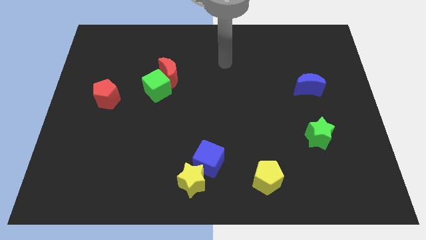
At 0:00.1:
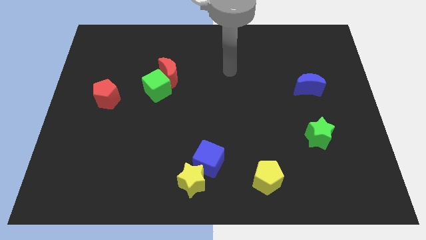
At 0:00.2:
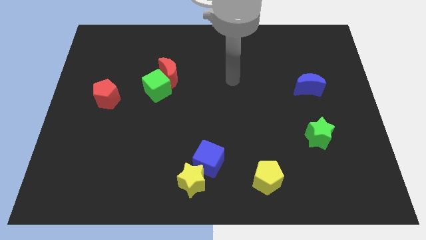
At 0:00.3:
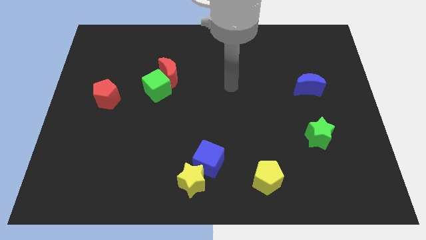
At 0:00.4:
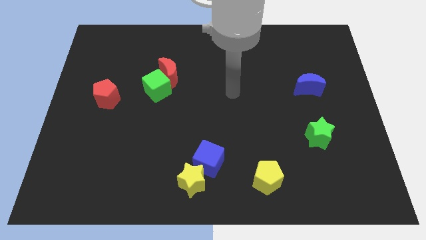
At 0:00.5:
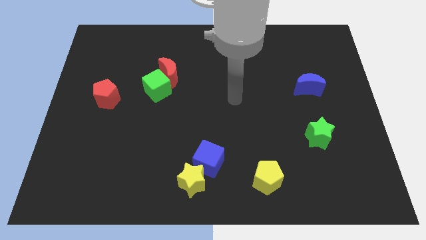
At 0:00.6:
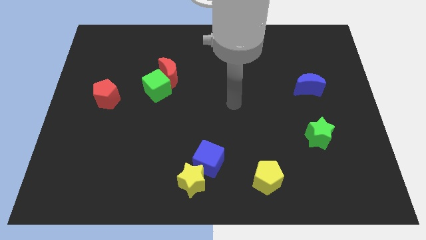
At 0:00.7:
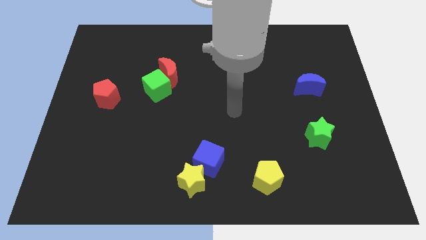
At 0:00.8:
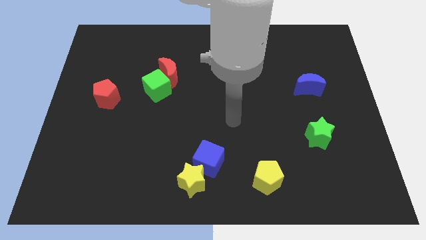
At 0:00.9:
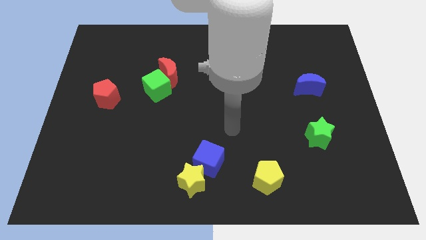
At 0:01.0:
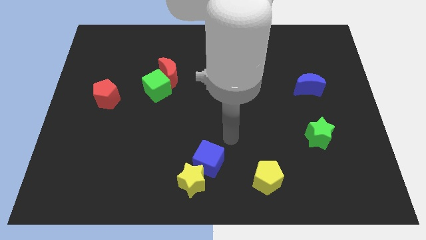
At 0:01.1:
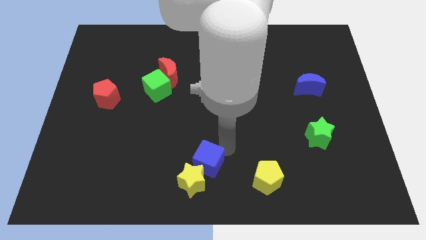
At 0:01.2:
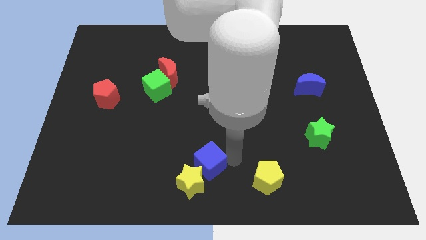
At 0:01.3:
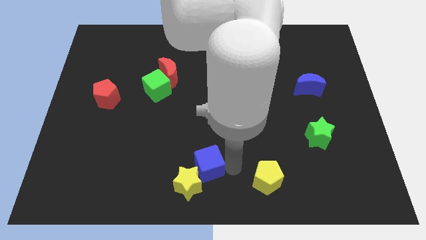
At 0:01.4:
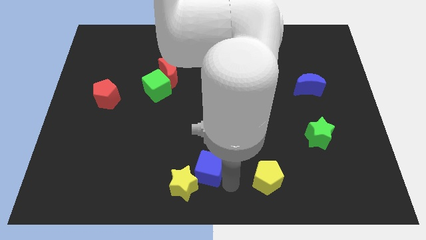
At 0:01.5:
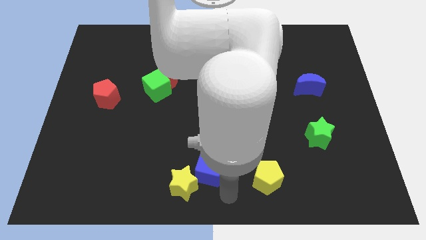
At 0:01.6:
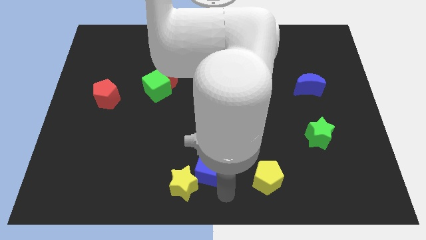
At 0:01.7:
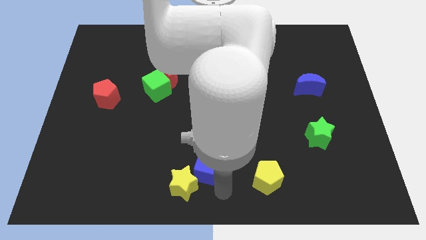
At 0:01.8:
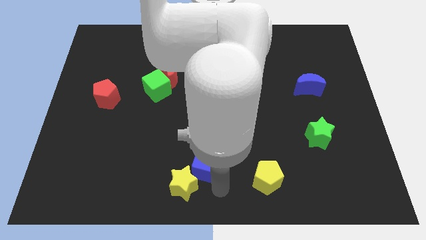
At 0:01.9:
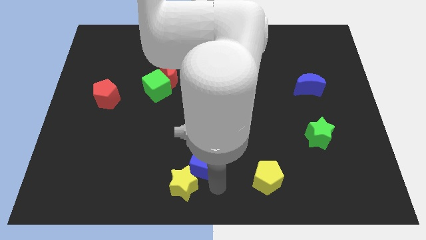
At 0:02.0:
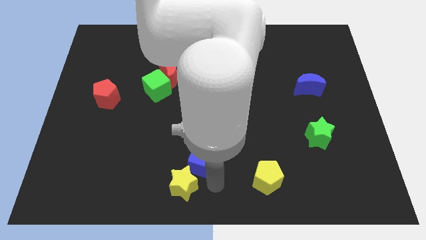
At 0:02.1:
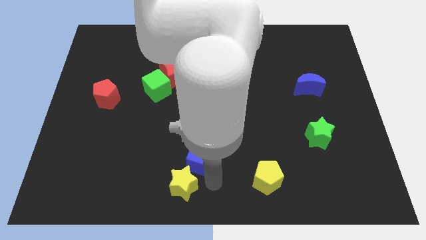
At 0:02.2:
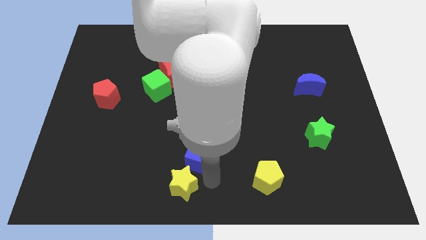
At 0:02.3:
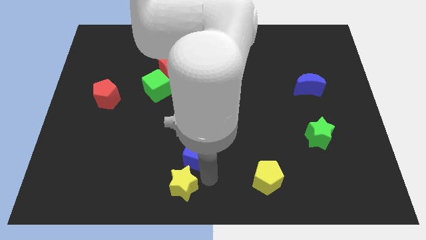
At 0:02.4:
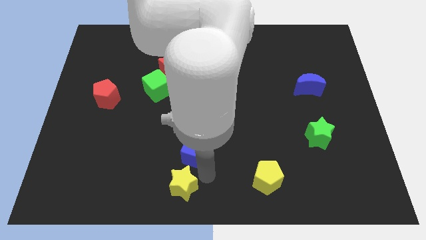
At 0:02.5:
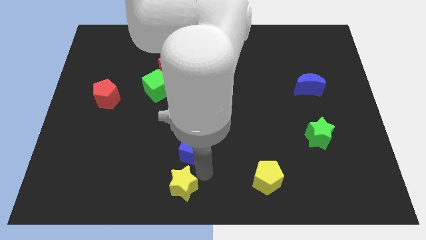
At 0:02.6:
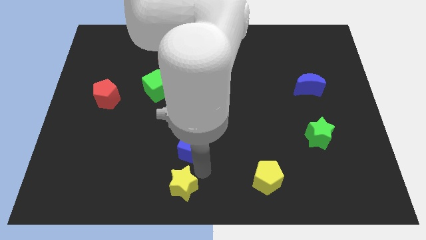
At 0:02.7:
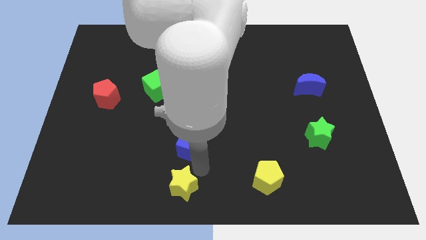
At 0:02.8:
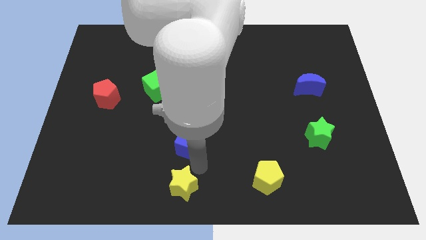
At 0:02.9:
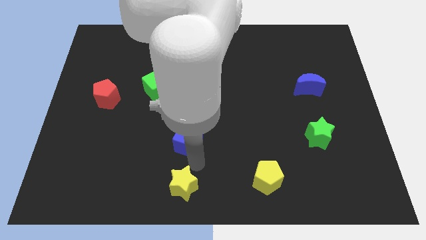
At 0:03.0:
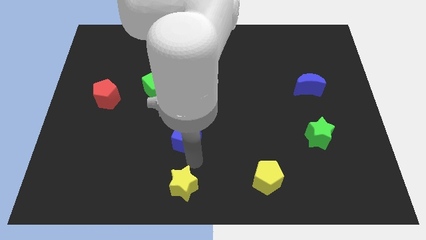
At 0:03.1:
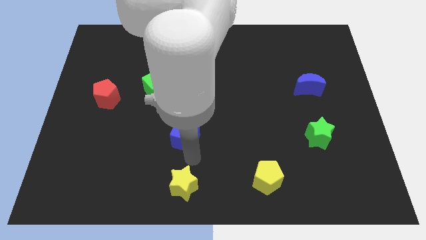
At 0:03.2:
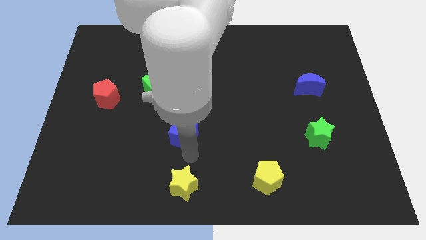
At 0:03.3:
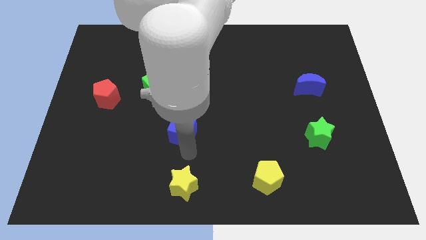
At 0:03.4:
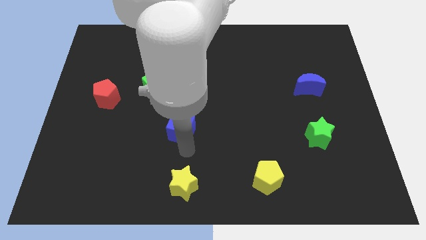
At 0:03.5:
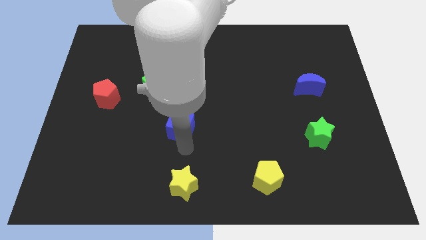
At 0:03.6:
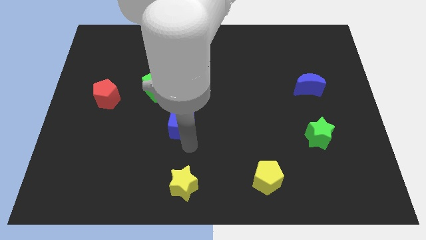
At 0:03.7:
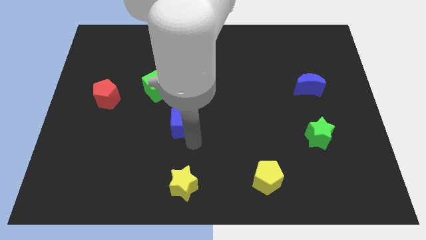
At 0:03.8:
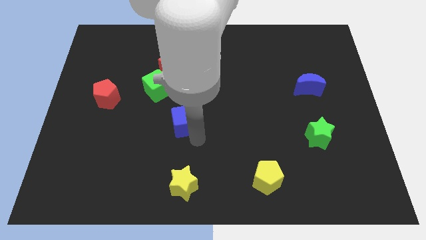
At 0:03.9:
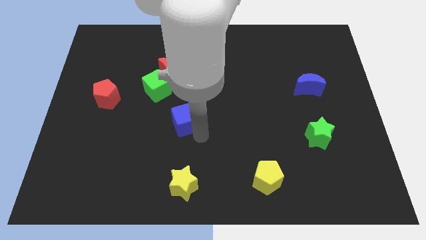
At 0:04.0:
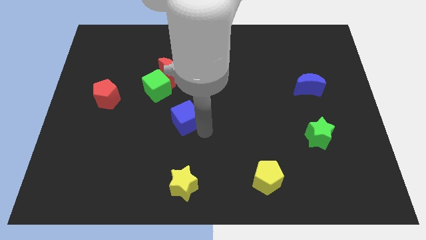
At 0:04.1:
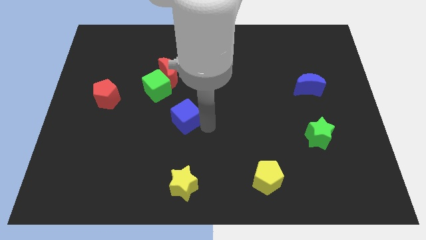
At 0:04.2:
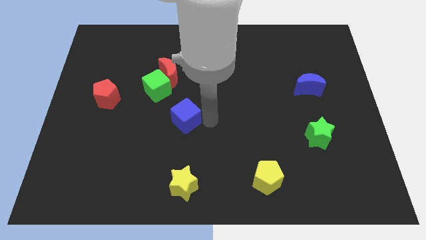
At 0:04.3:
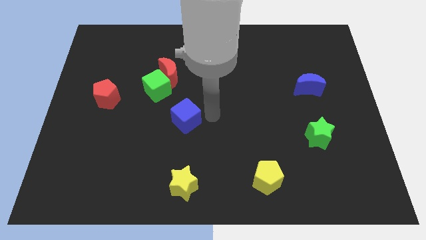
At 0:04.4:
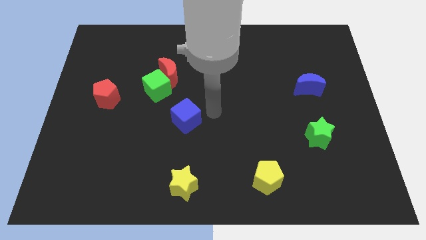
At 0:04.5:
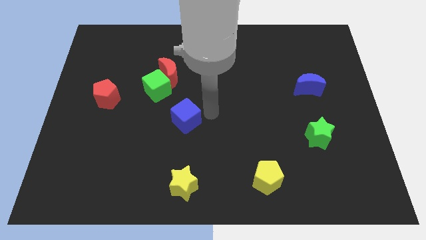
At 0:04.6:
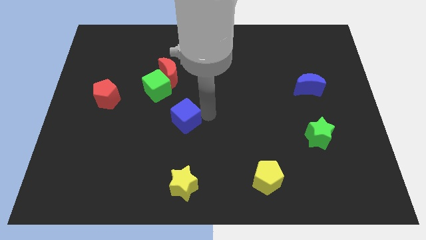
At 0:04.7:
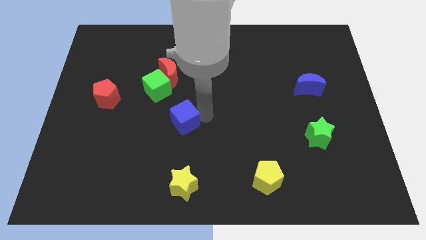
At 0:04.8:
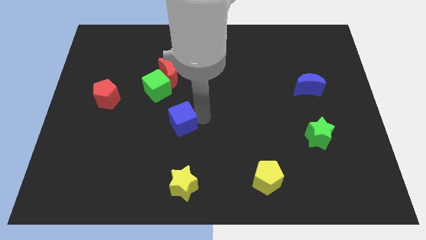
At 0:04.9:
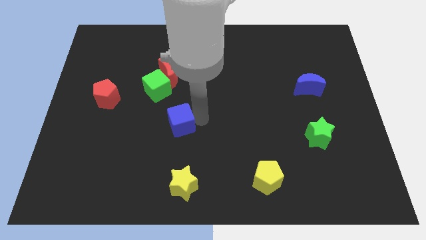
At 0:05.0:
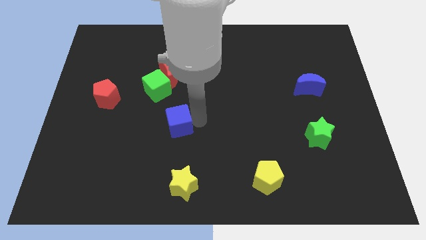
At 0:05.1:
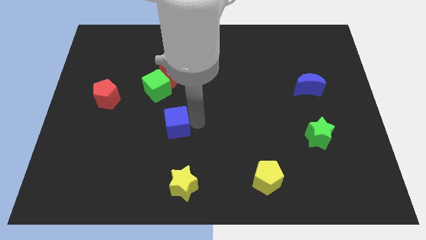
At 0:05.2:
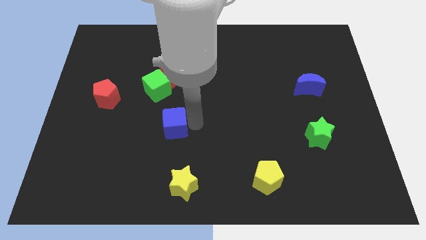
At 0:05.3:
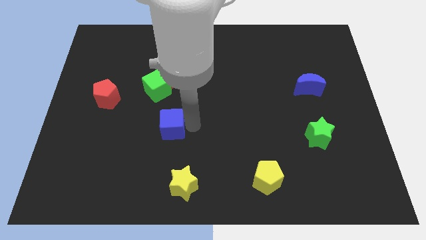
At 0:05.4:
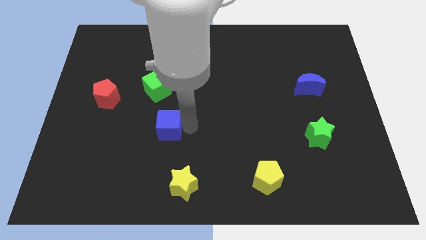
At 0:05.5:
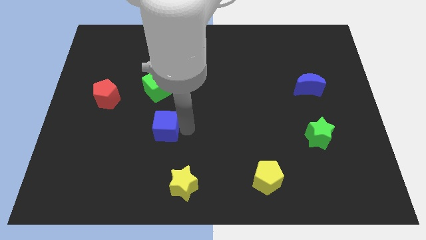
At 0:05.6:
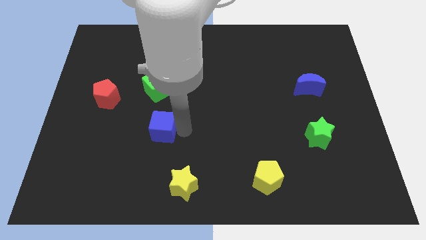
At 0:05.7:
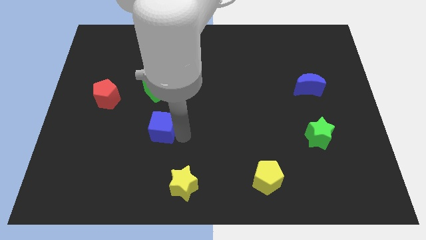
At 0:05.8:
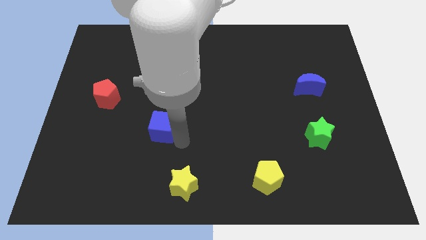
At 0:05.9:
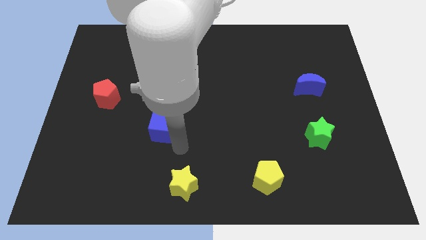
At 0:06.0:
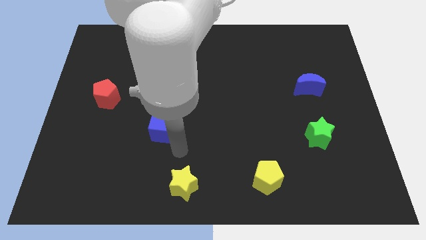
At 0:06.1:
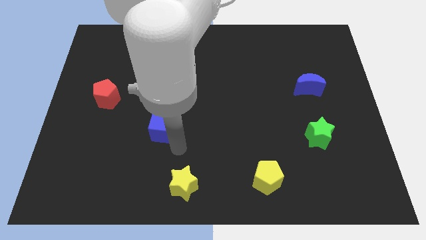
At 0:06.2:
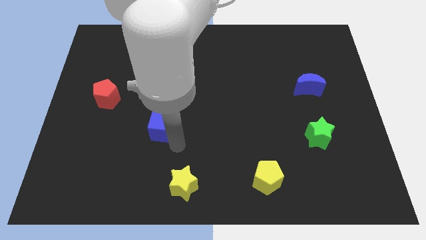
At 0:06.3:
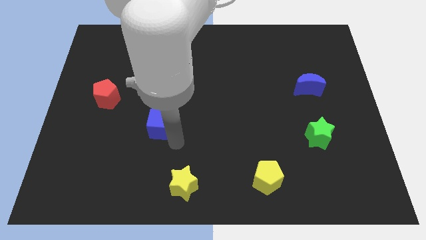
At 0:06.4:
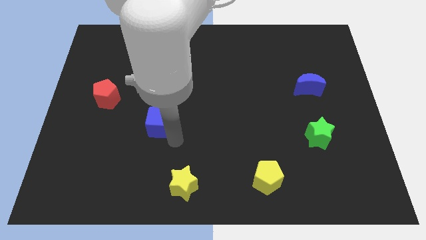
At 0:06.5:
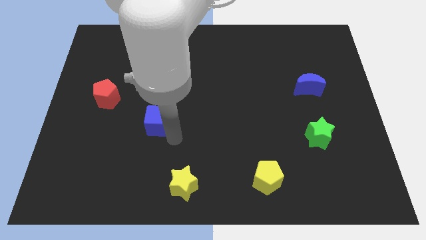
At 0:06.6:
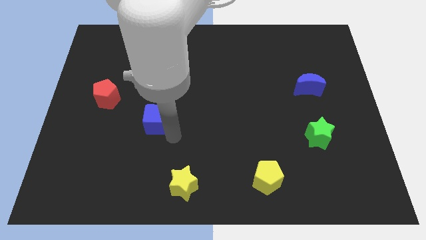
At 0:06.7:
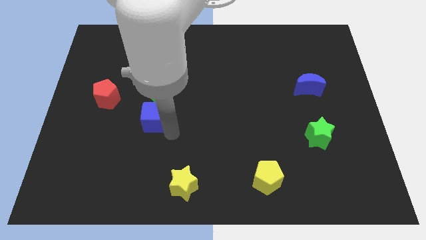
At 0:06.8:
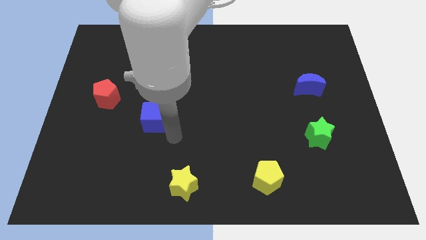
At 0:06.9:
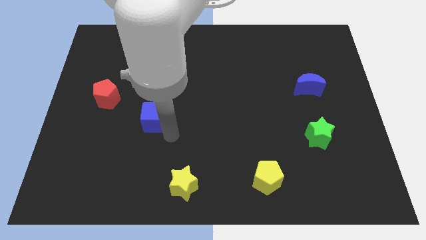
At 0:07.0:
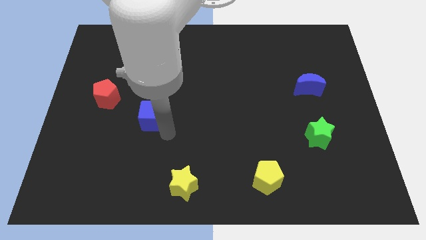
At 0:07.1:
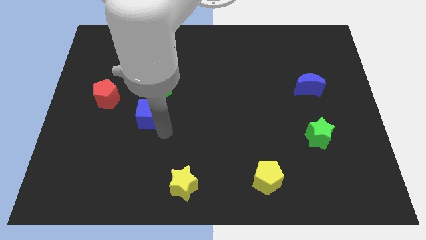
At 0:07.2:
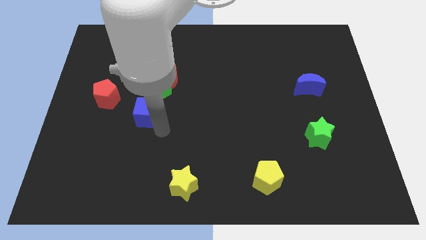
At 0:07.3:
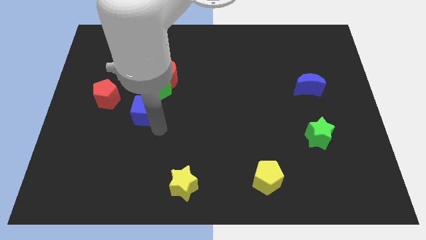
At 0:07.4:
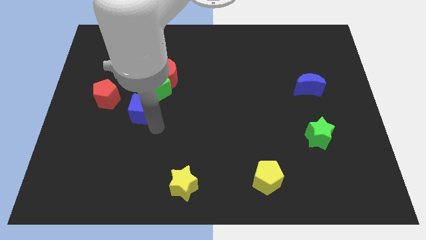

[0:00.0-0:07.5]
move the blue cube upwards and left diagonally

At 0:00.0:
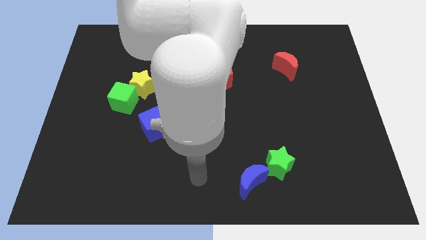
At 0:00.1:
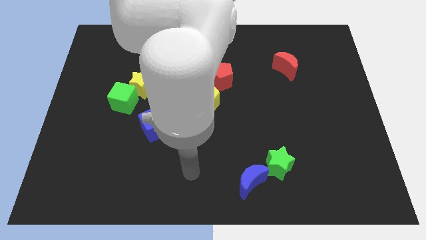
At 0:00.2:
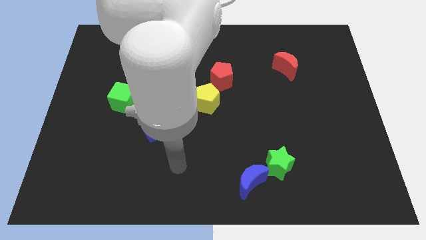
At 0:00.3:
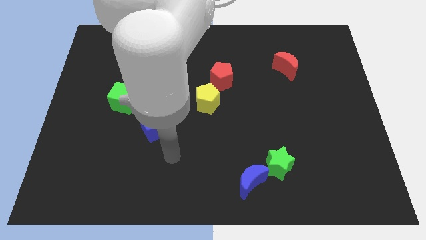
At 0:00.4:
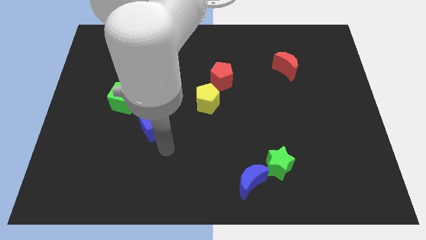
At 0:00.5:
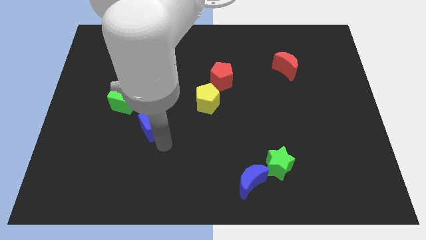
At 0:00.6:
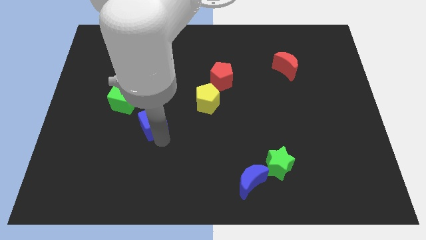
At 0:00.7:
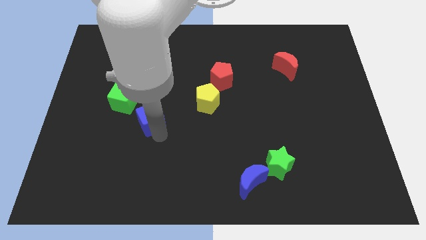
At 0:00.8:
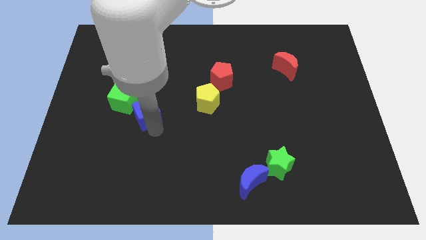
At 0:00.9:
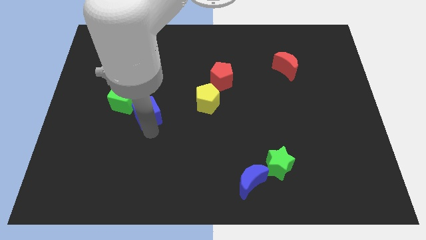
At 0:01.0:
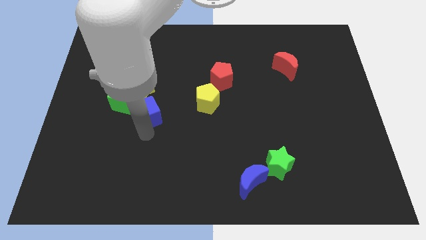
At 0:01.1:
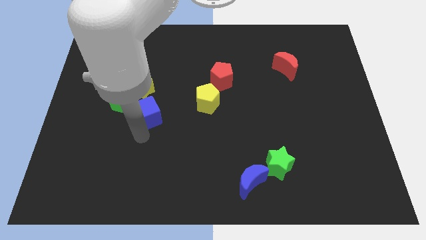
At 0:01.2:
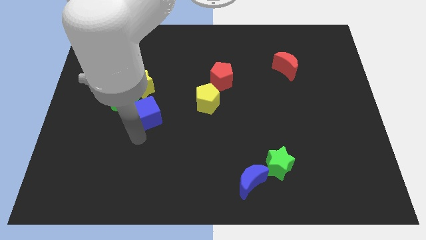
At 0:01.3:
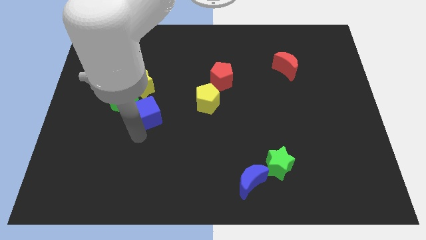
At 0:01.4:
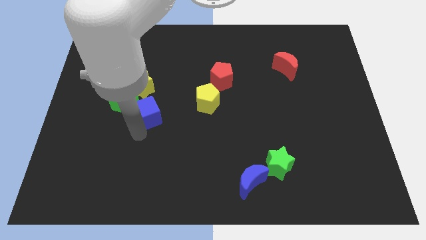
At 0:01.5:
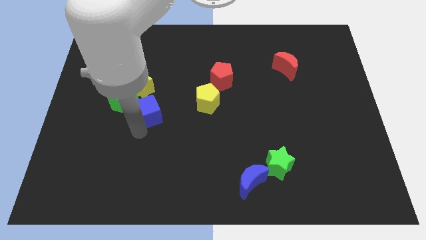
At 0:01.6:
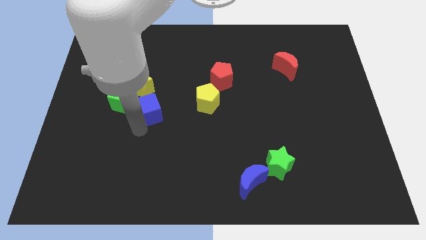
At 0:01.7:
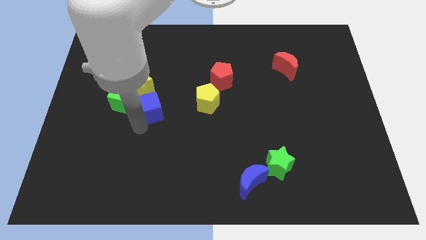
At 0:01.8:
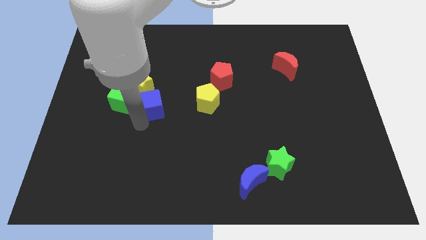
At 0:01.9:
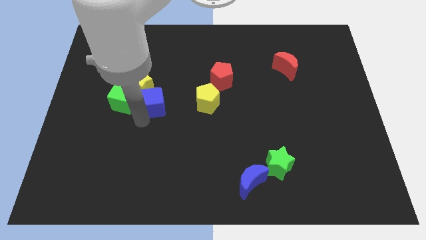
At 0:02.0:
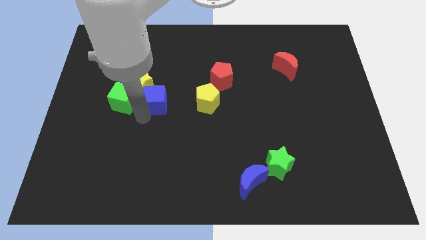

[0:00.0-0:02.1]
move the blue cube a bit up
